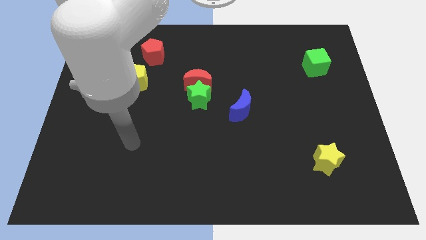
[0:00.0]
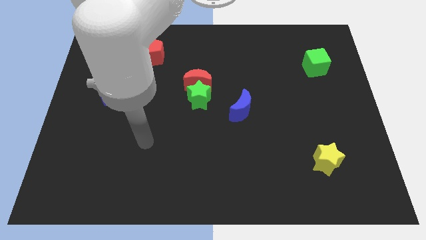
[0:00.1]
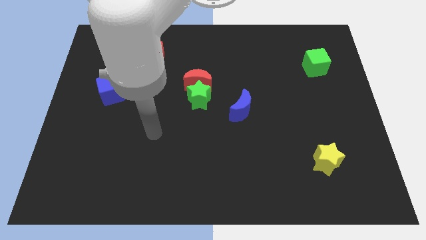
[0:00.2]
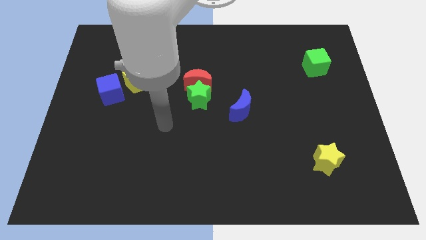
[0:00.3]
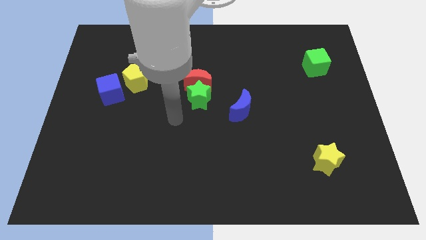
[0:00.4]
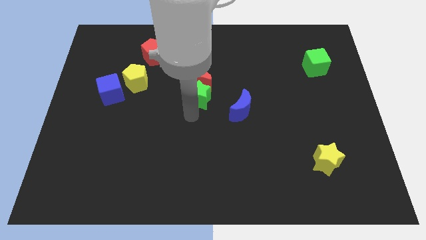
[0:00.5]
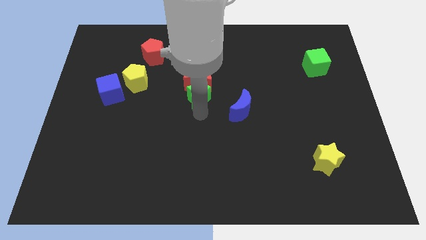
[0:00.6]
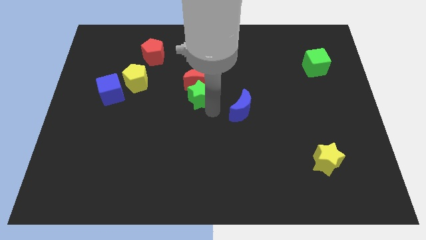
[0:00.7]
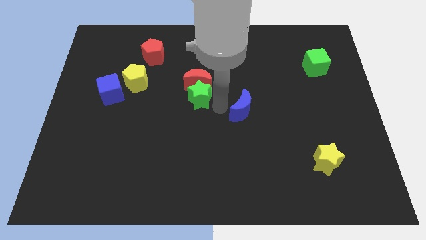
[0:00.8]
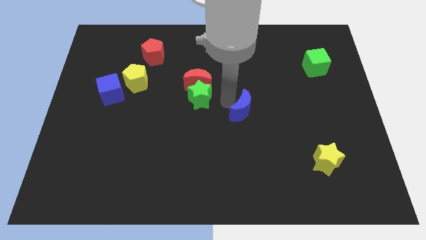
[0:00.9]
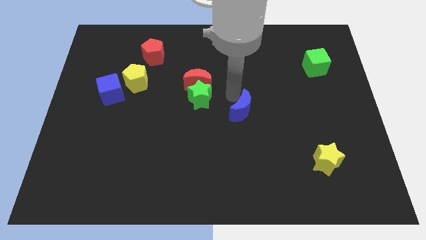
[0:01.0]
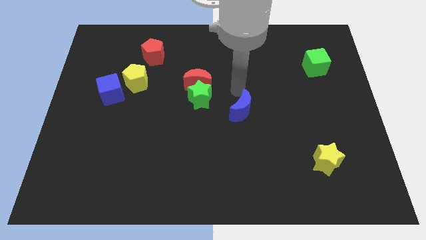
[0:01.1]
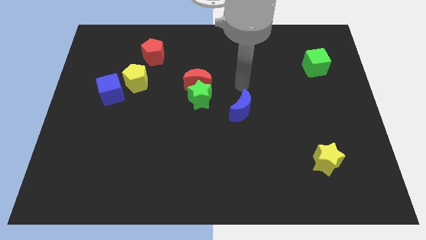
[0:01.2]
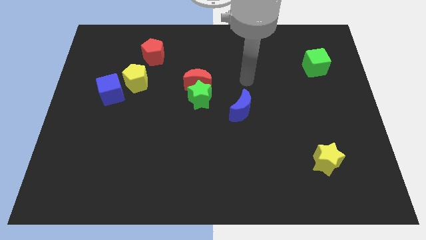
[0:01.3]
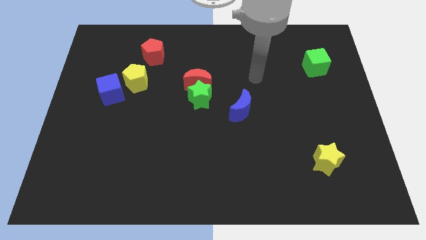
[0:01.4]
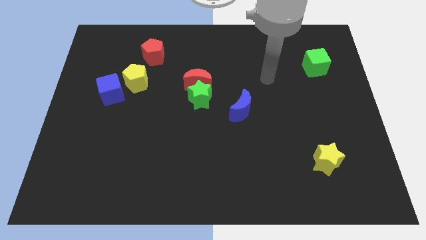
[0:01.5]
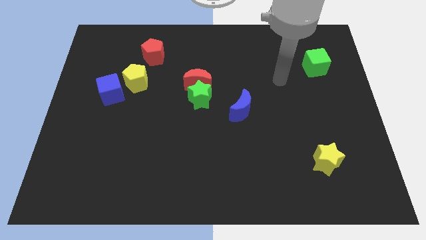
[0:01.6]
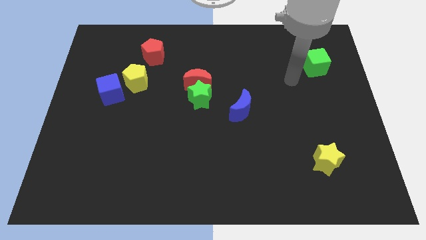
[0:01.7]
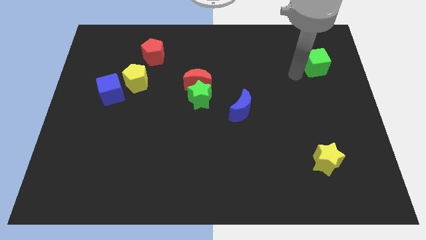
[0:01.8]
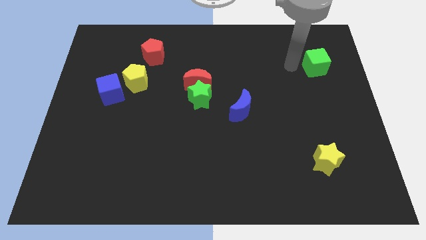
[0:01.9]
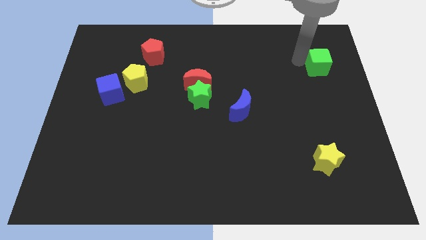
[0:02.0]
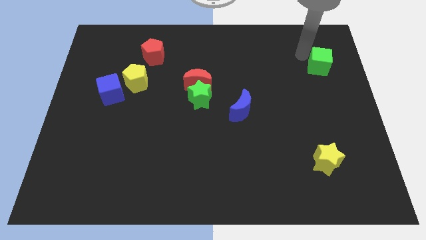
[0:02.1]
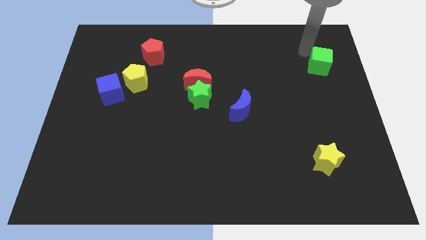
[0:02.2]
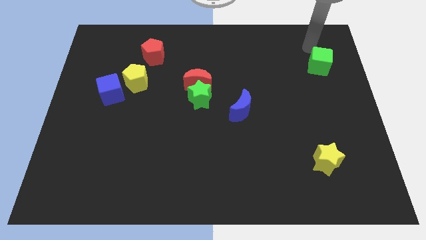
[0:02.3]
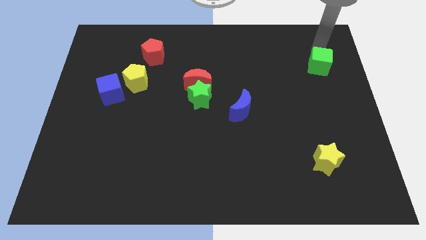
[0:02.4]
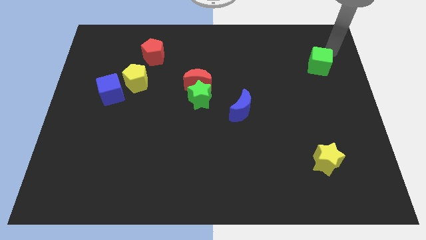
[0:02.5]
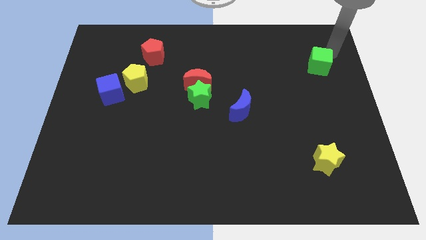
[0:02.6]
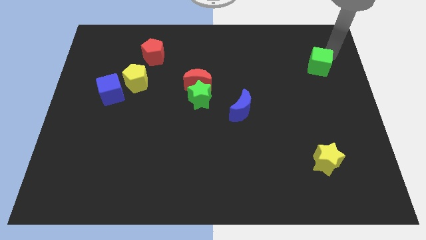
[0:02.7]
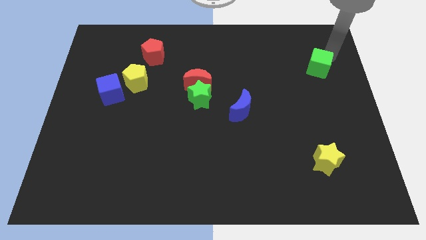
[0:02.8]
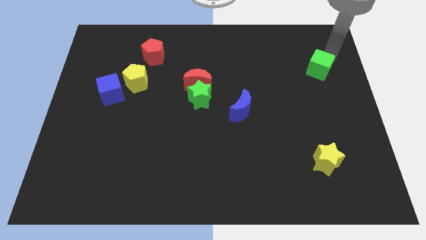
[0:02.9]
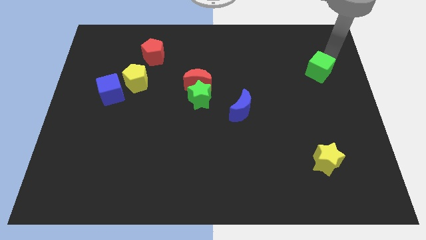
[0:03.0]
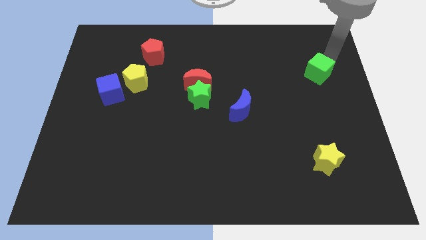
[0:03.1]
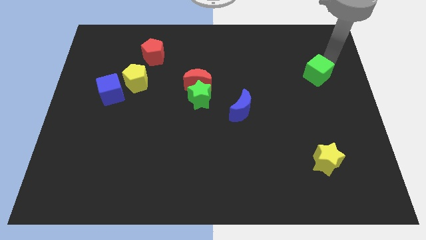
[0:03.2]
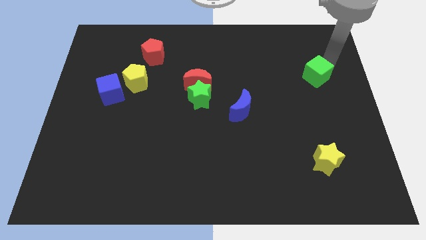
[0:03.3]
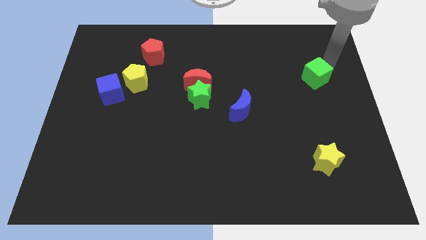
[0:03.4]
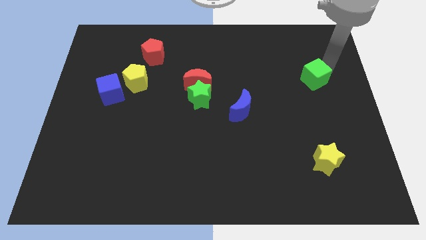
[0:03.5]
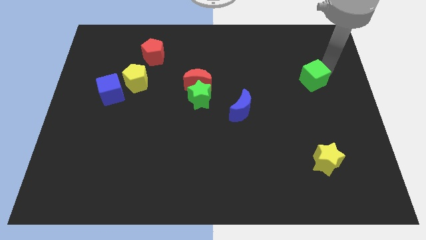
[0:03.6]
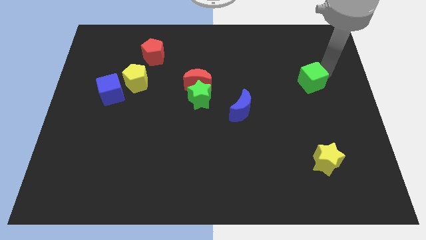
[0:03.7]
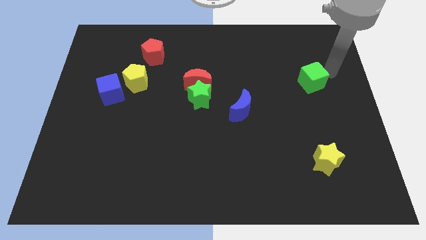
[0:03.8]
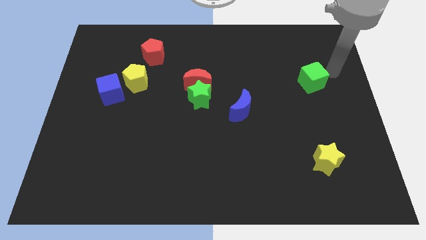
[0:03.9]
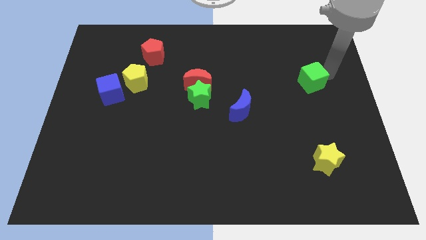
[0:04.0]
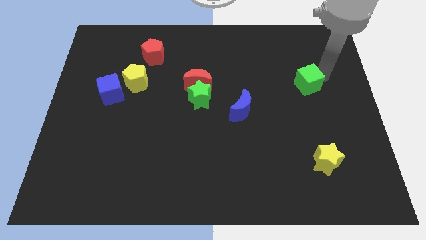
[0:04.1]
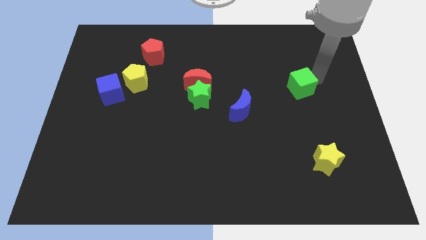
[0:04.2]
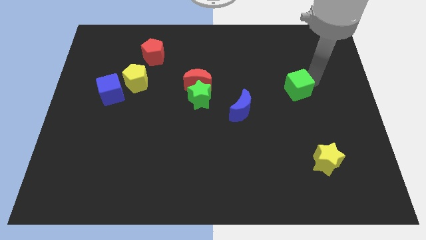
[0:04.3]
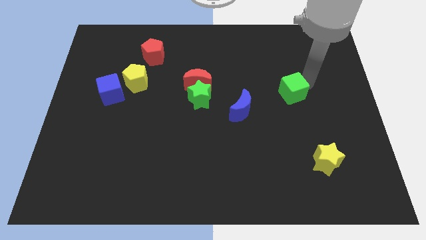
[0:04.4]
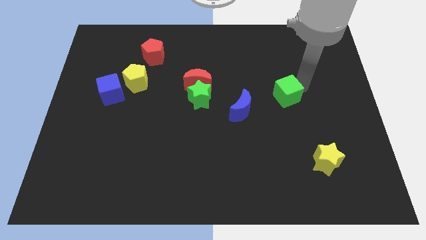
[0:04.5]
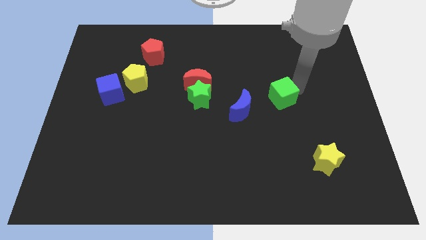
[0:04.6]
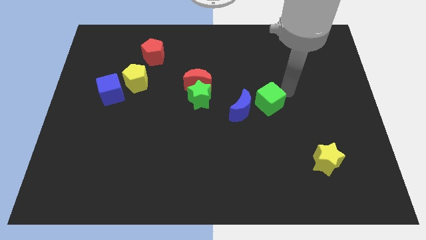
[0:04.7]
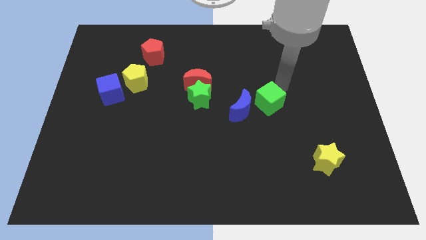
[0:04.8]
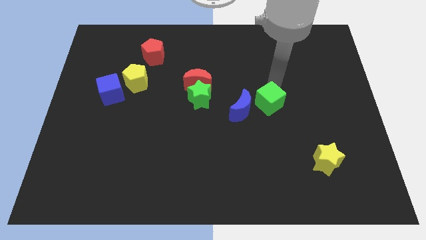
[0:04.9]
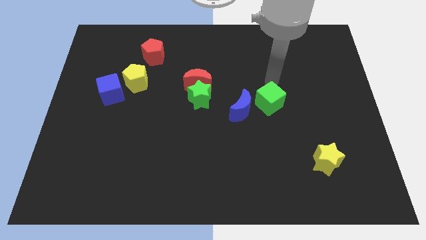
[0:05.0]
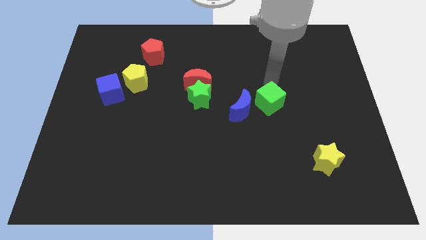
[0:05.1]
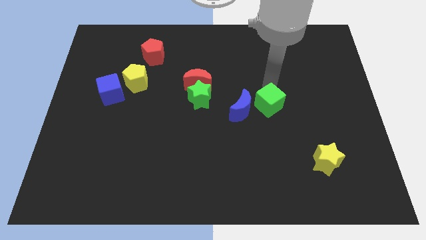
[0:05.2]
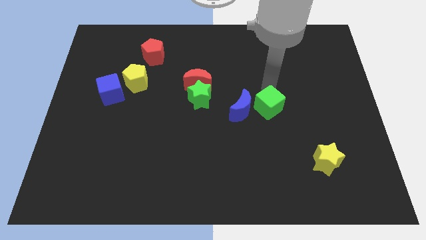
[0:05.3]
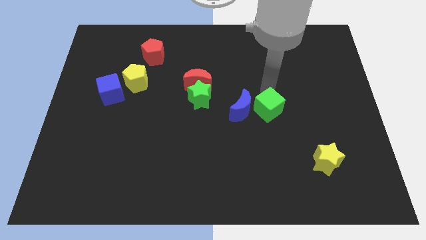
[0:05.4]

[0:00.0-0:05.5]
push the green cube diagonally down and to the right of the blue moon

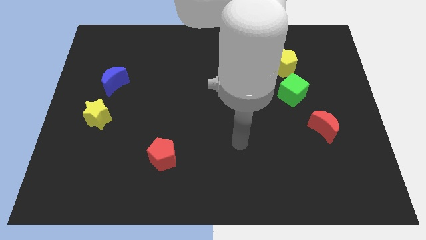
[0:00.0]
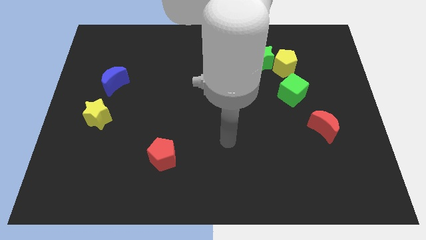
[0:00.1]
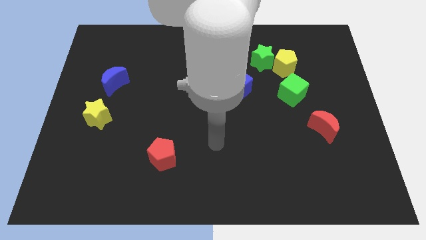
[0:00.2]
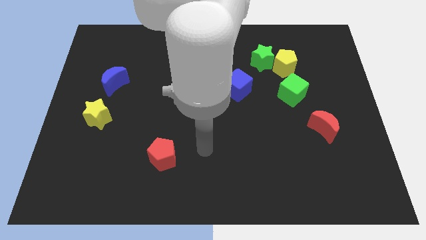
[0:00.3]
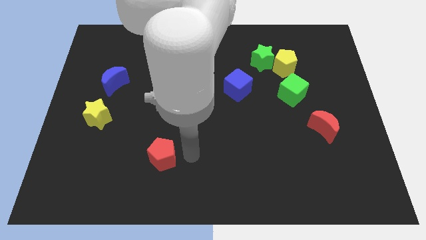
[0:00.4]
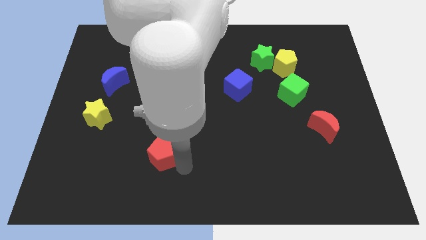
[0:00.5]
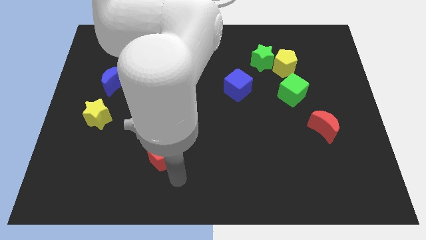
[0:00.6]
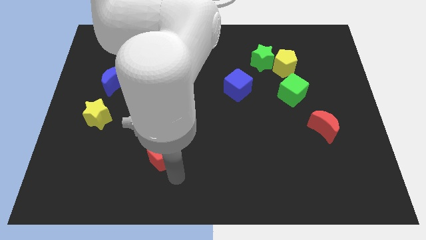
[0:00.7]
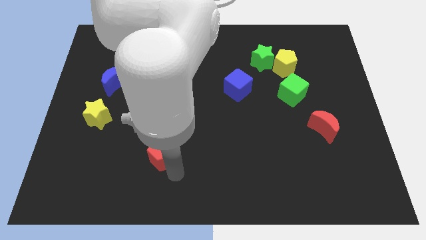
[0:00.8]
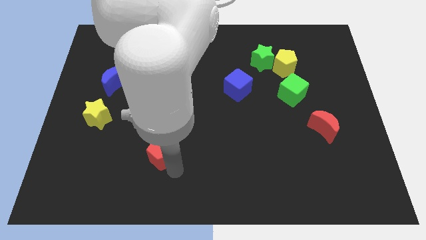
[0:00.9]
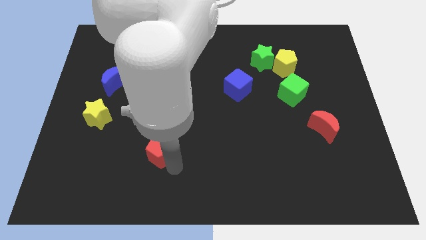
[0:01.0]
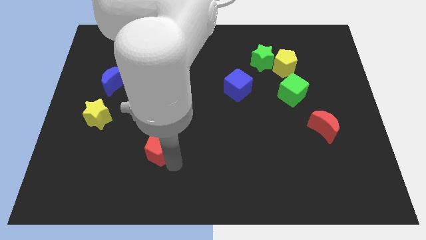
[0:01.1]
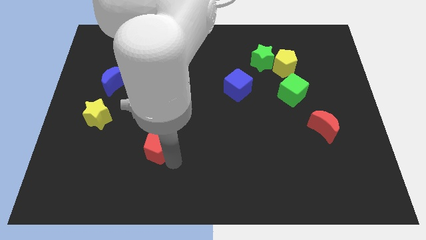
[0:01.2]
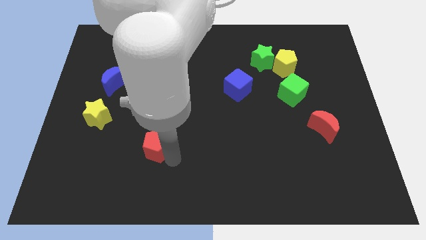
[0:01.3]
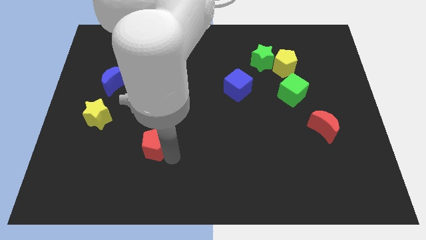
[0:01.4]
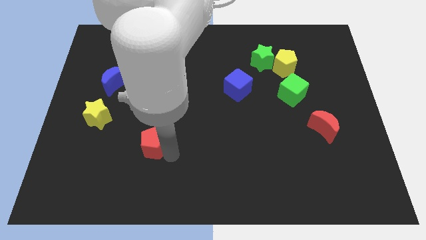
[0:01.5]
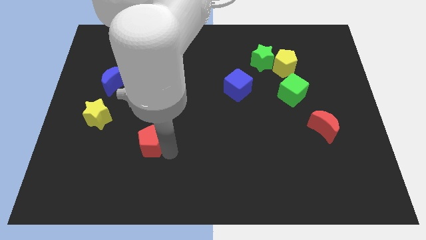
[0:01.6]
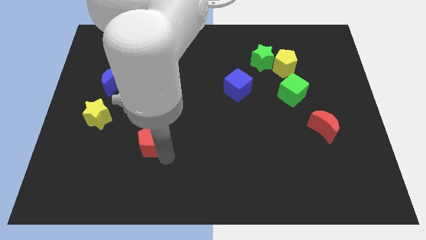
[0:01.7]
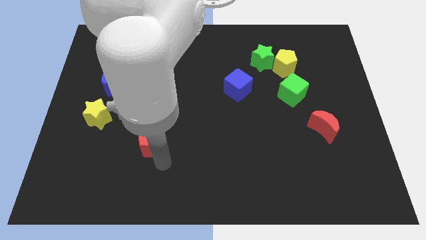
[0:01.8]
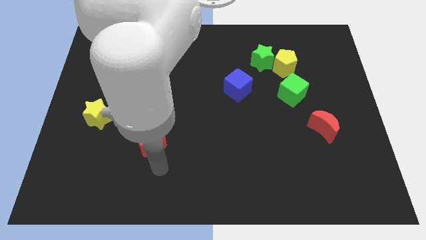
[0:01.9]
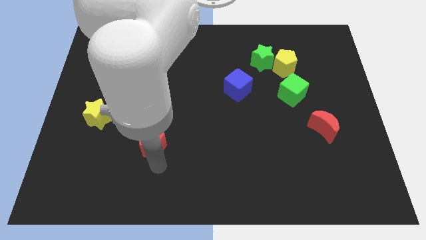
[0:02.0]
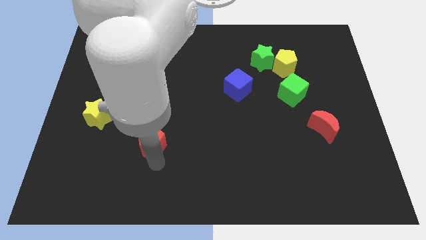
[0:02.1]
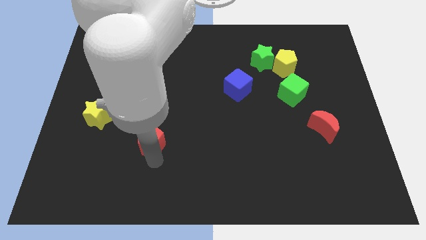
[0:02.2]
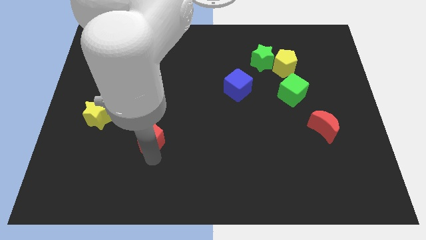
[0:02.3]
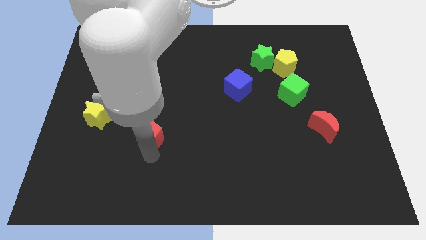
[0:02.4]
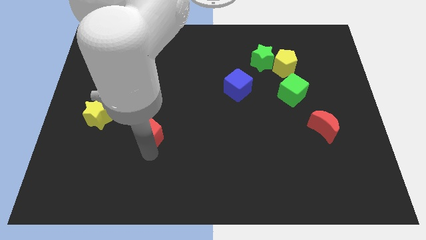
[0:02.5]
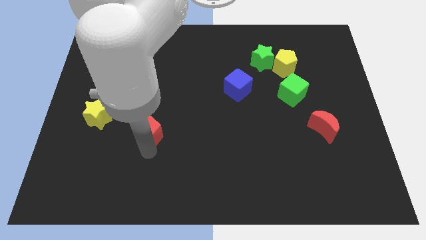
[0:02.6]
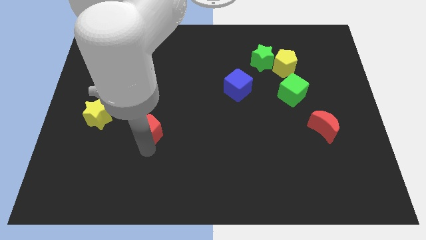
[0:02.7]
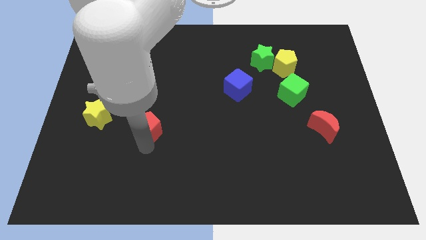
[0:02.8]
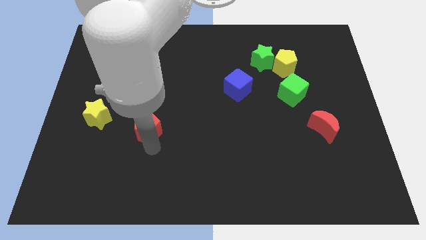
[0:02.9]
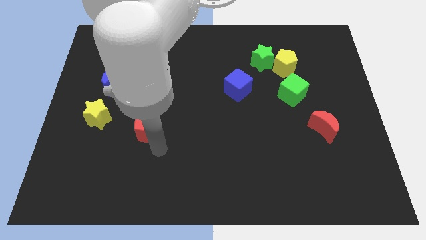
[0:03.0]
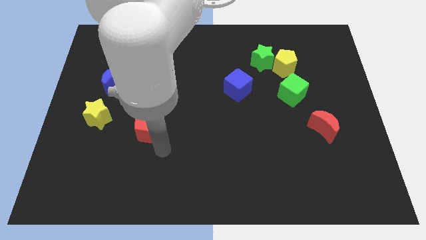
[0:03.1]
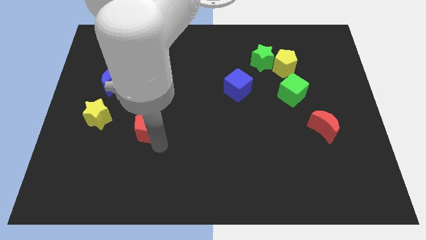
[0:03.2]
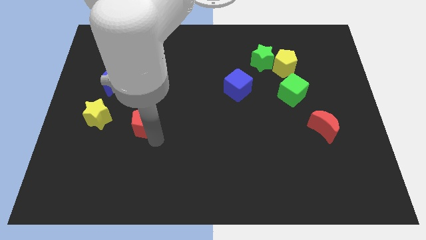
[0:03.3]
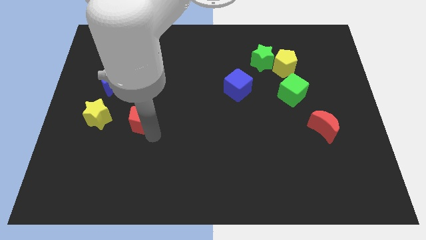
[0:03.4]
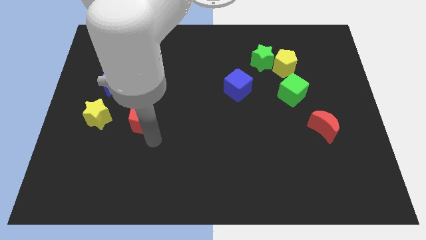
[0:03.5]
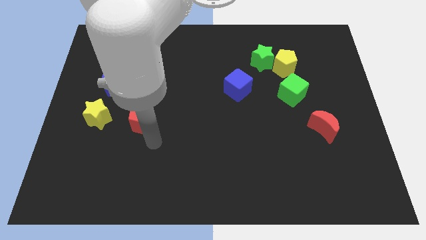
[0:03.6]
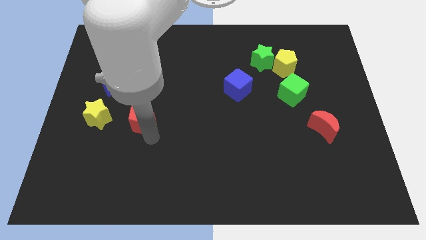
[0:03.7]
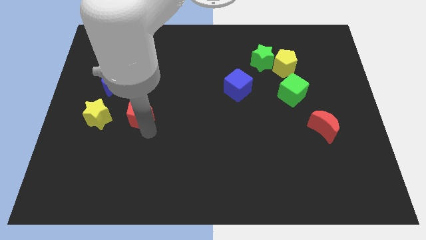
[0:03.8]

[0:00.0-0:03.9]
slide the red pentagon diagonally down and to the right of the blue moon
